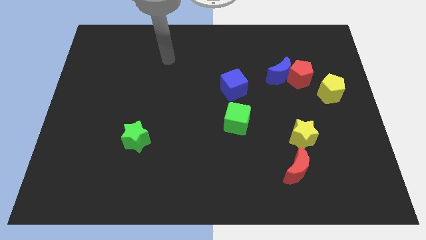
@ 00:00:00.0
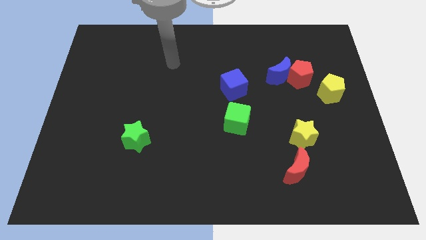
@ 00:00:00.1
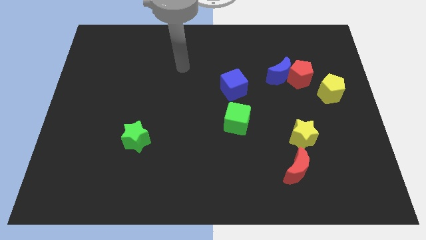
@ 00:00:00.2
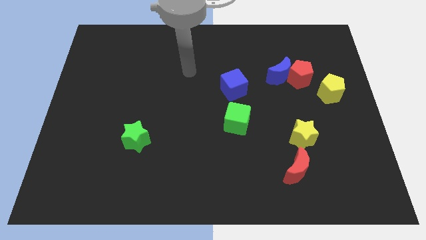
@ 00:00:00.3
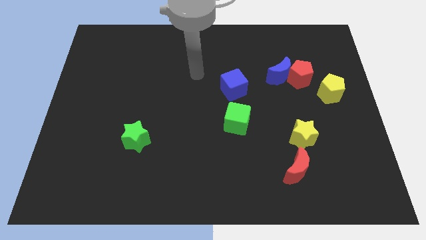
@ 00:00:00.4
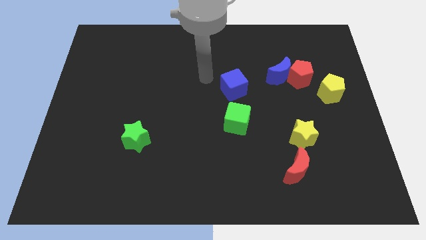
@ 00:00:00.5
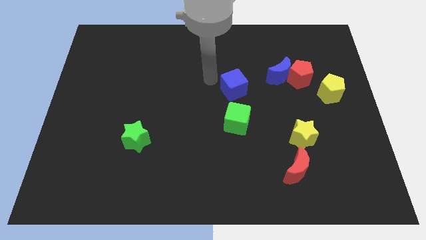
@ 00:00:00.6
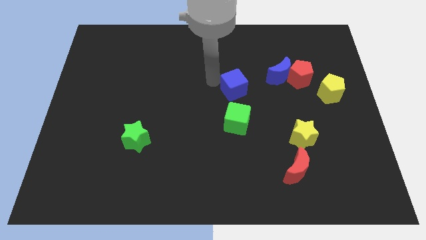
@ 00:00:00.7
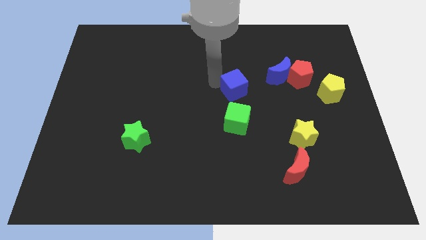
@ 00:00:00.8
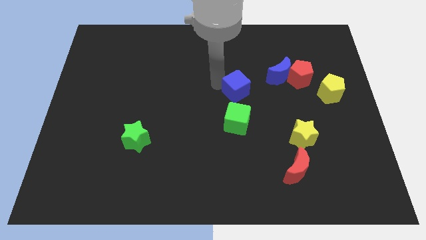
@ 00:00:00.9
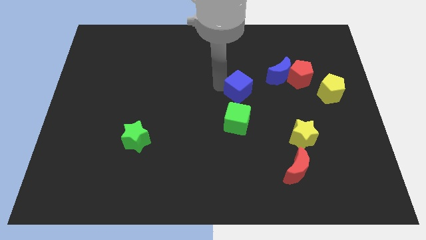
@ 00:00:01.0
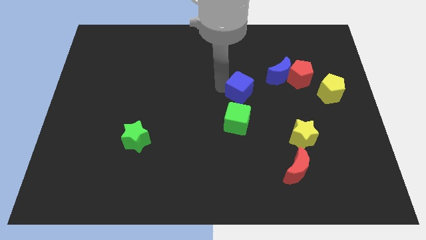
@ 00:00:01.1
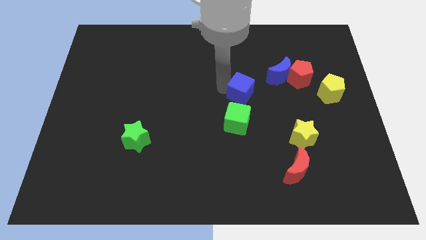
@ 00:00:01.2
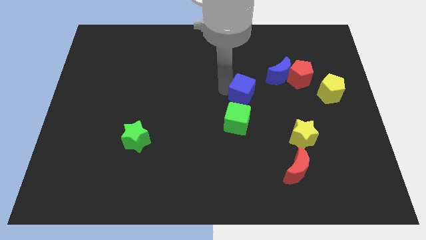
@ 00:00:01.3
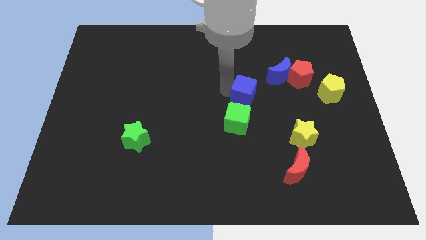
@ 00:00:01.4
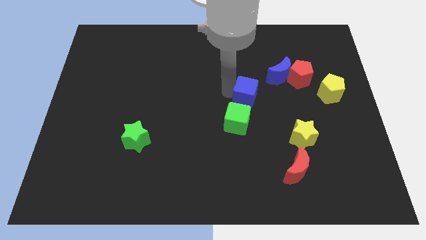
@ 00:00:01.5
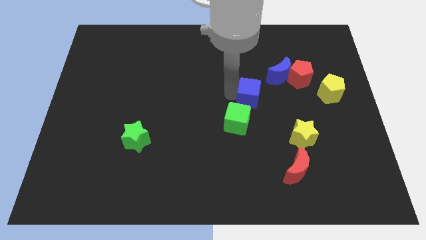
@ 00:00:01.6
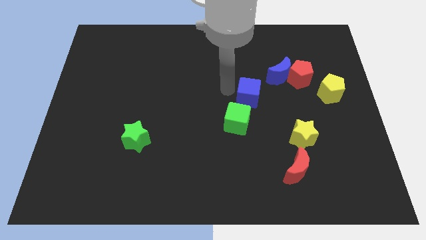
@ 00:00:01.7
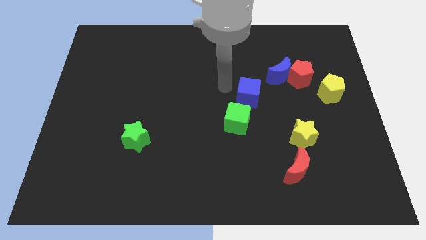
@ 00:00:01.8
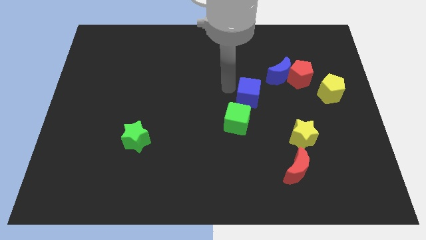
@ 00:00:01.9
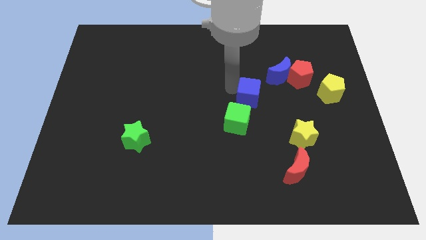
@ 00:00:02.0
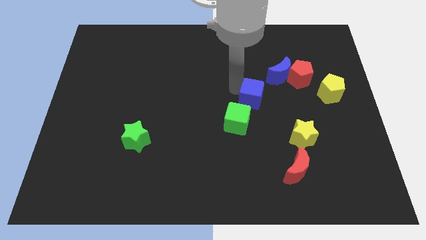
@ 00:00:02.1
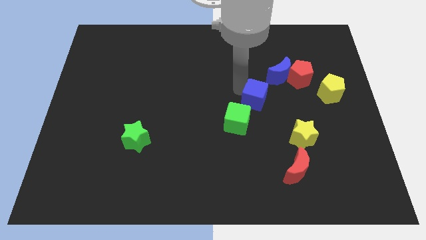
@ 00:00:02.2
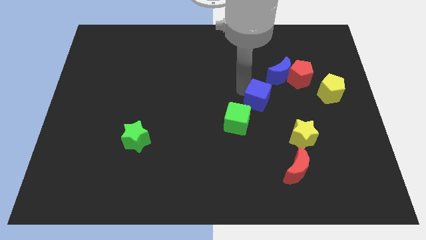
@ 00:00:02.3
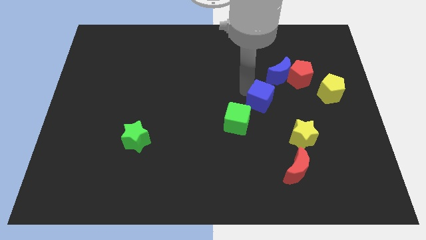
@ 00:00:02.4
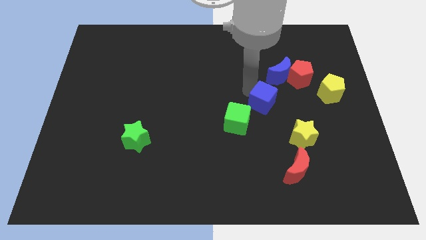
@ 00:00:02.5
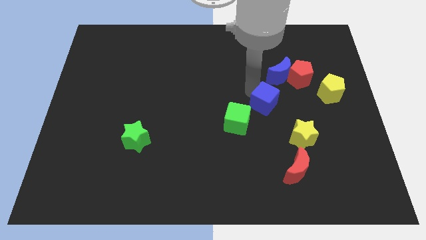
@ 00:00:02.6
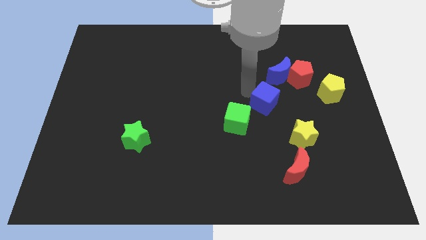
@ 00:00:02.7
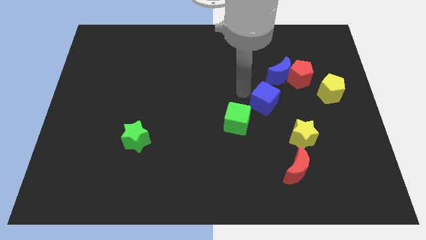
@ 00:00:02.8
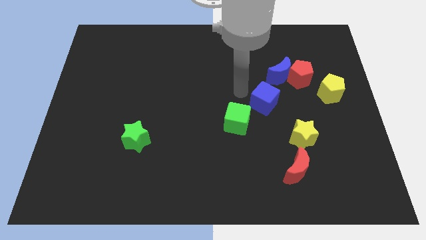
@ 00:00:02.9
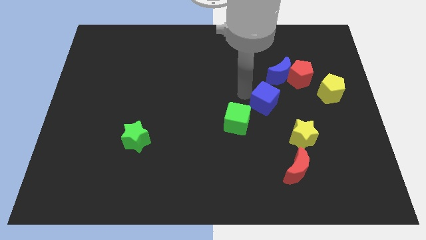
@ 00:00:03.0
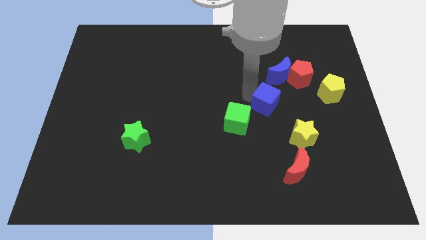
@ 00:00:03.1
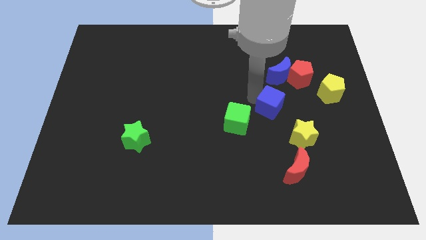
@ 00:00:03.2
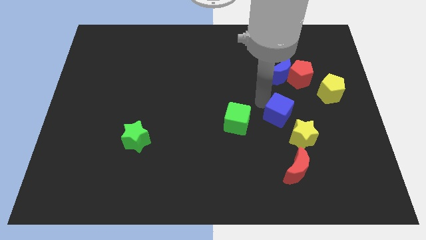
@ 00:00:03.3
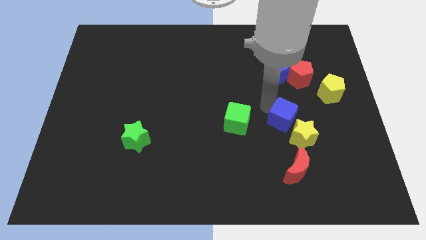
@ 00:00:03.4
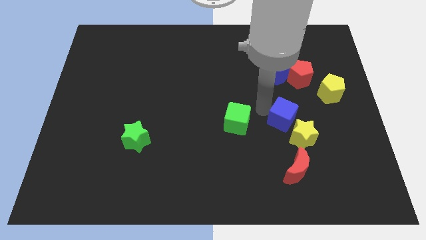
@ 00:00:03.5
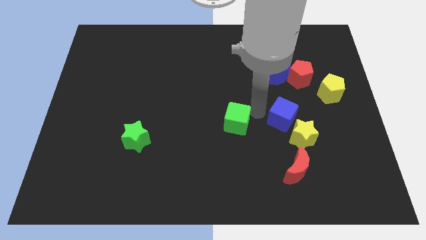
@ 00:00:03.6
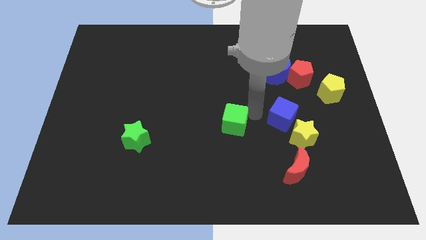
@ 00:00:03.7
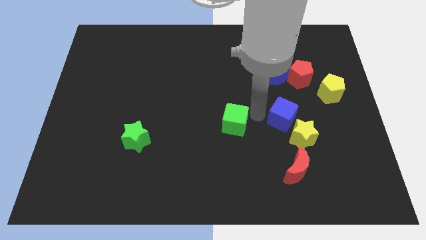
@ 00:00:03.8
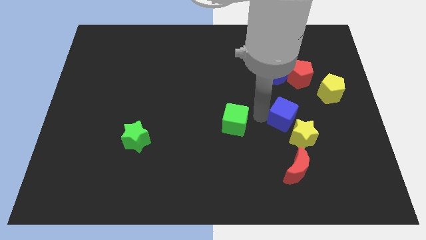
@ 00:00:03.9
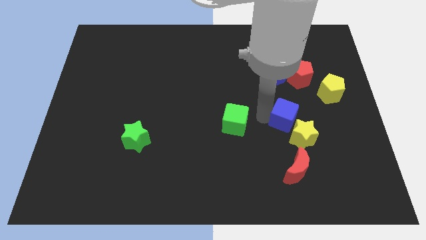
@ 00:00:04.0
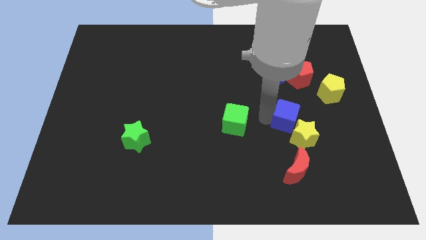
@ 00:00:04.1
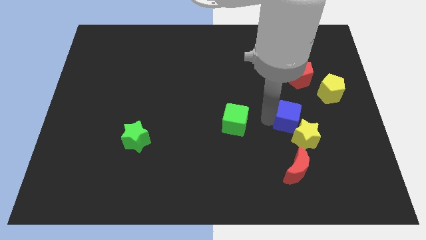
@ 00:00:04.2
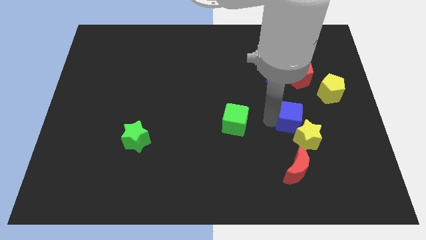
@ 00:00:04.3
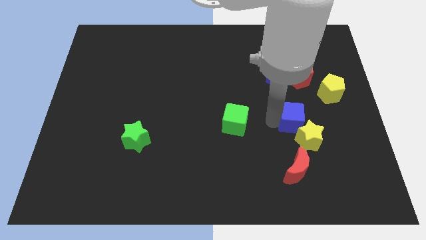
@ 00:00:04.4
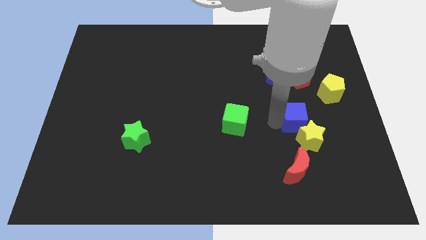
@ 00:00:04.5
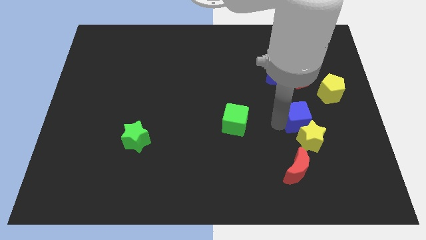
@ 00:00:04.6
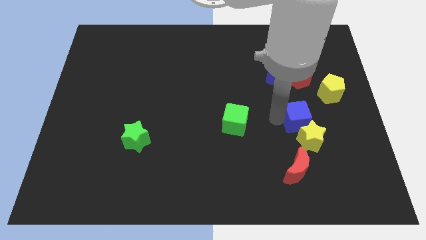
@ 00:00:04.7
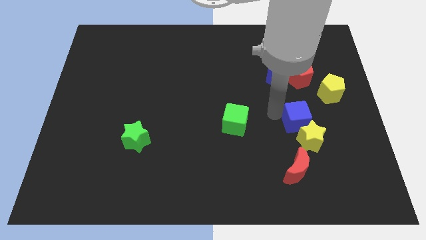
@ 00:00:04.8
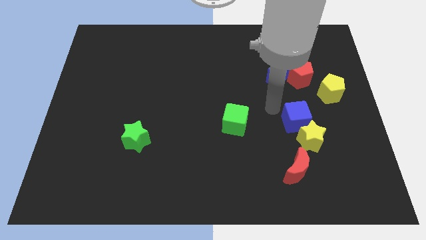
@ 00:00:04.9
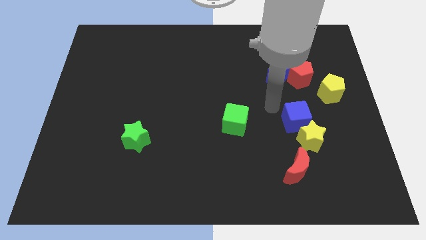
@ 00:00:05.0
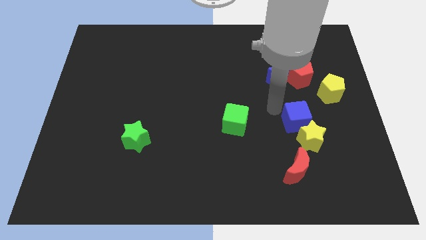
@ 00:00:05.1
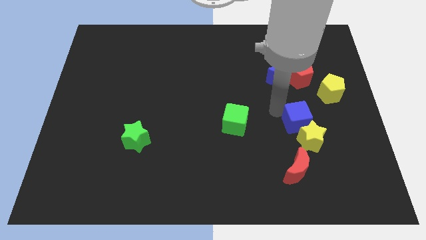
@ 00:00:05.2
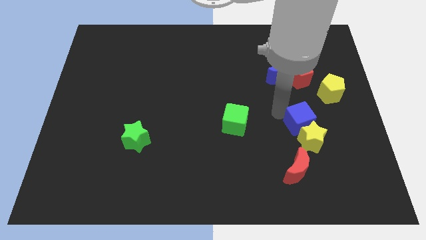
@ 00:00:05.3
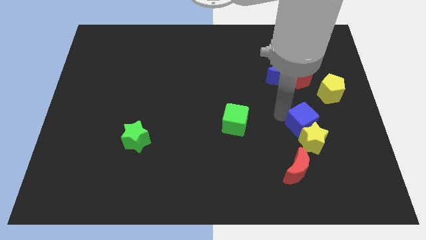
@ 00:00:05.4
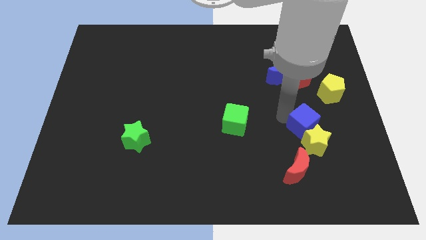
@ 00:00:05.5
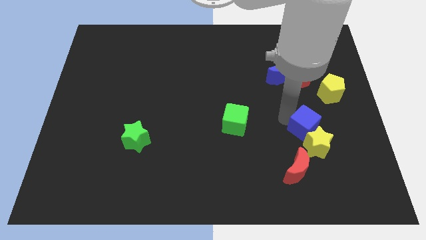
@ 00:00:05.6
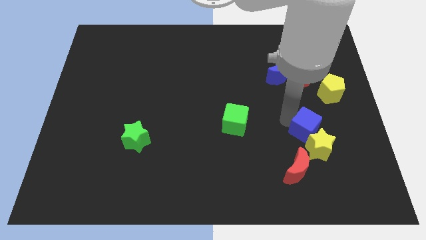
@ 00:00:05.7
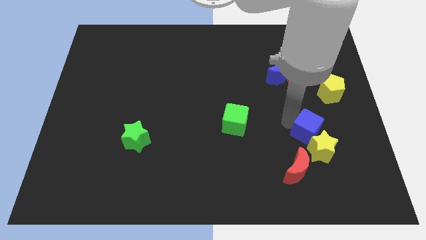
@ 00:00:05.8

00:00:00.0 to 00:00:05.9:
push the blue cube downwards and right

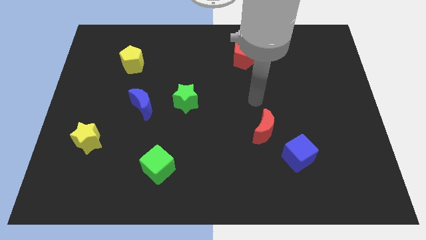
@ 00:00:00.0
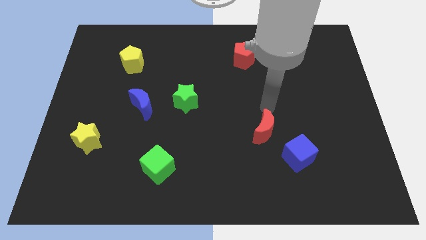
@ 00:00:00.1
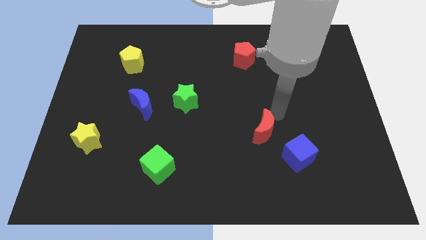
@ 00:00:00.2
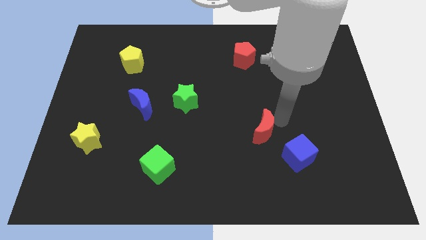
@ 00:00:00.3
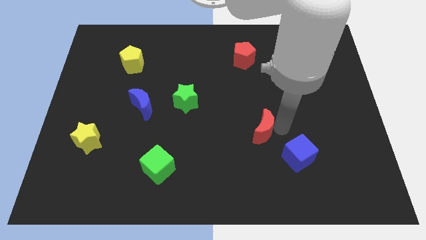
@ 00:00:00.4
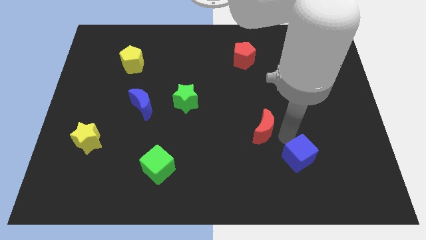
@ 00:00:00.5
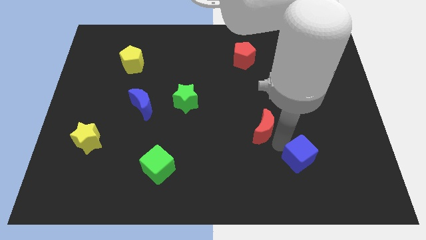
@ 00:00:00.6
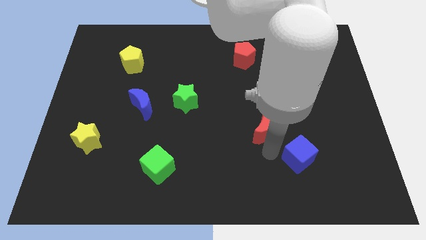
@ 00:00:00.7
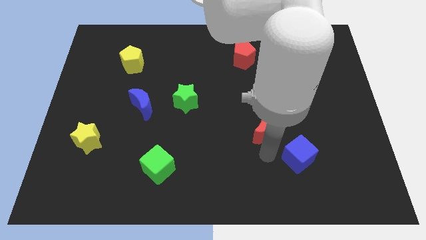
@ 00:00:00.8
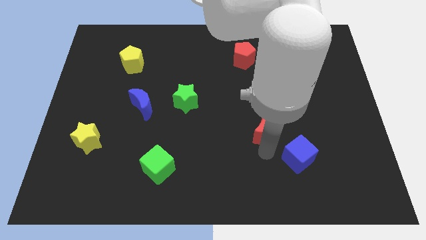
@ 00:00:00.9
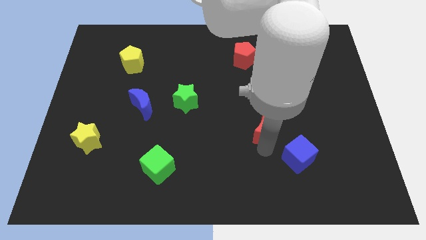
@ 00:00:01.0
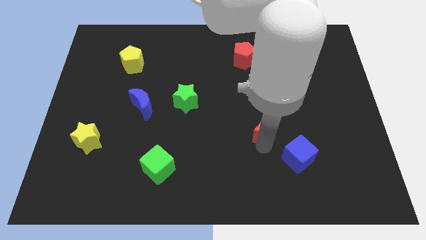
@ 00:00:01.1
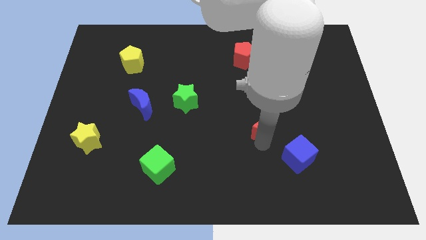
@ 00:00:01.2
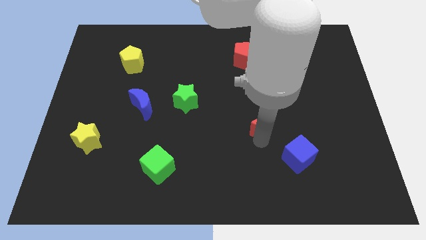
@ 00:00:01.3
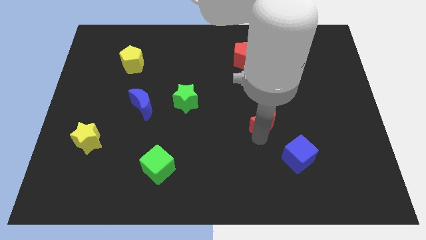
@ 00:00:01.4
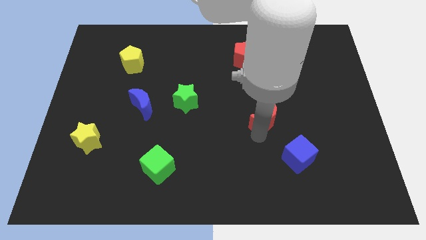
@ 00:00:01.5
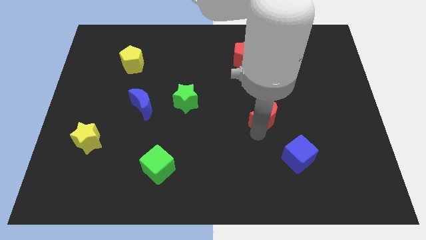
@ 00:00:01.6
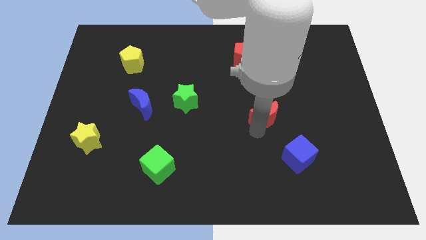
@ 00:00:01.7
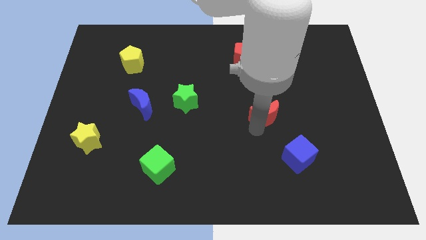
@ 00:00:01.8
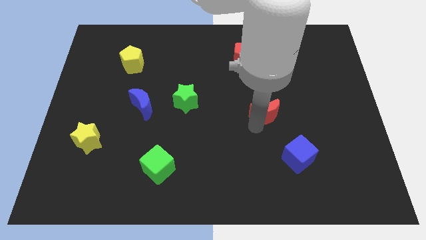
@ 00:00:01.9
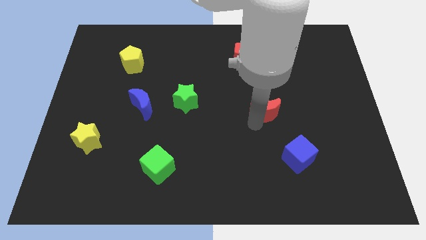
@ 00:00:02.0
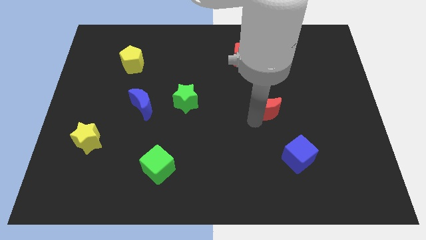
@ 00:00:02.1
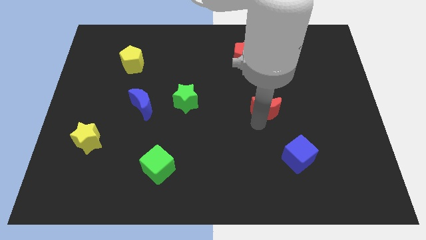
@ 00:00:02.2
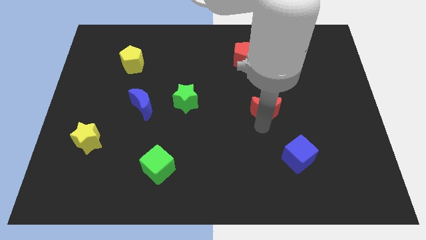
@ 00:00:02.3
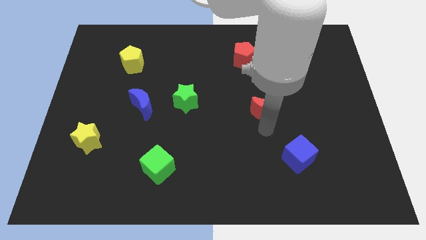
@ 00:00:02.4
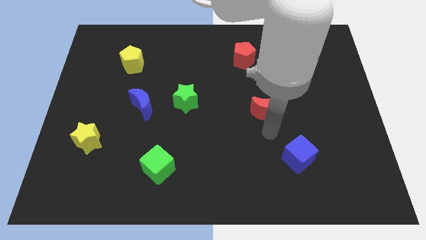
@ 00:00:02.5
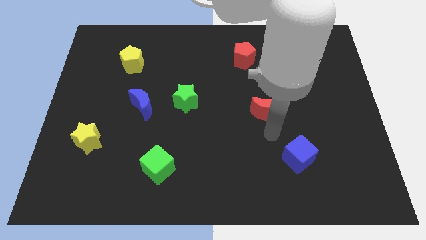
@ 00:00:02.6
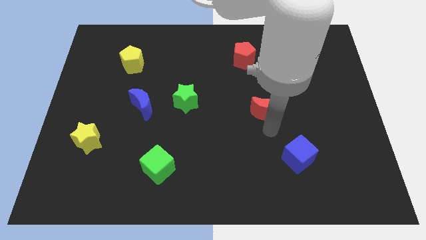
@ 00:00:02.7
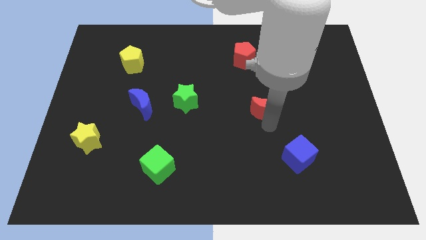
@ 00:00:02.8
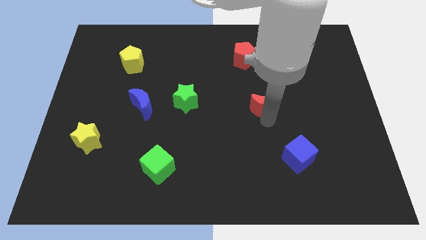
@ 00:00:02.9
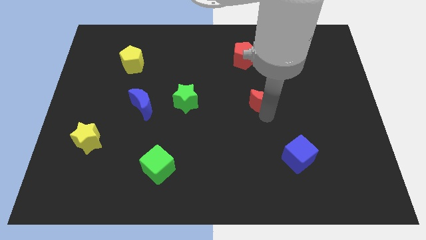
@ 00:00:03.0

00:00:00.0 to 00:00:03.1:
push the red moon slightly upwards
